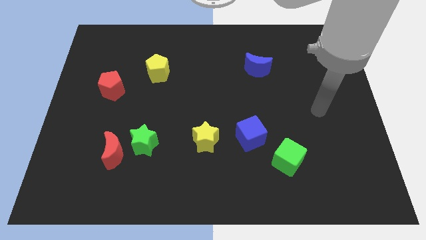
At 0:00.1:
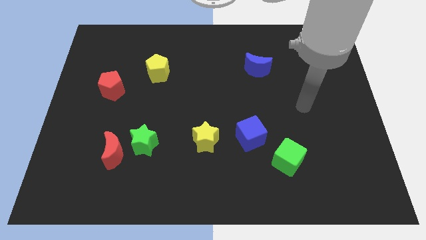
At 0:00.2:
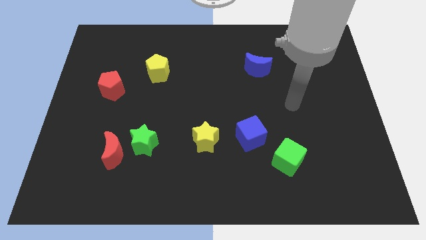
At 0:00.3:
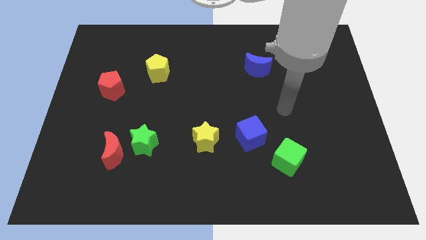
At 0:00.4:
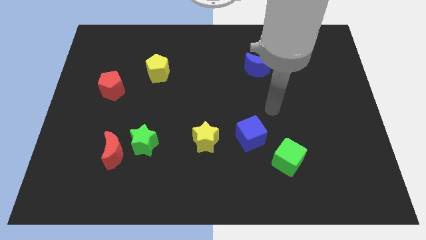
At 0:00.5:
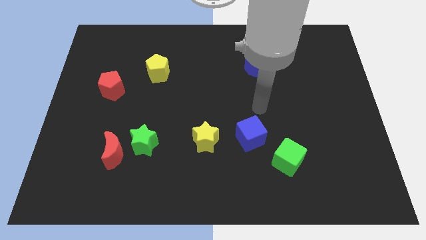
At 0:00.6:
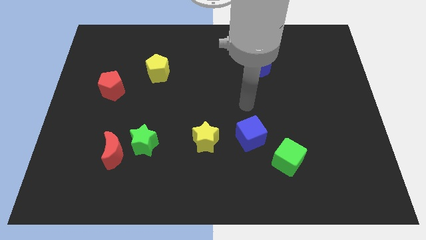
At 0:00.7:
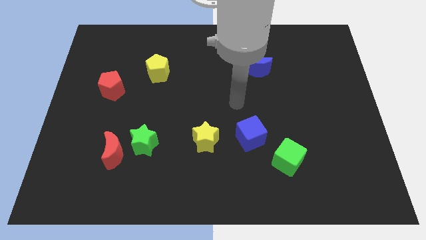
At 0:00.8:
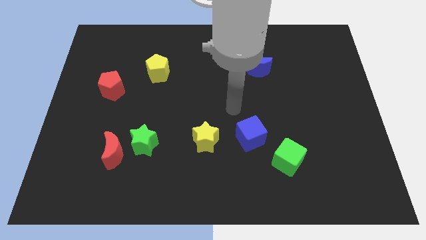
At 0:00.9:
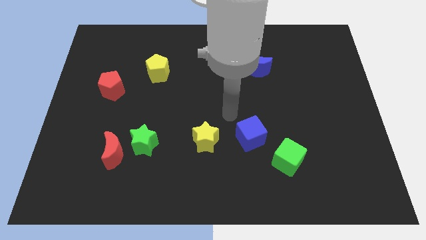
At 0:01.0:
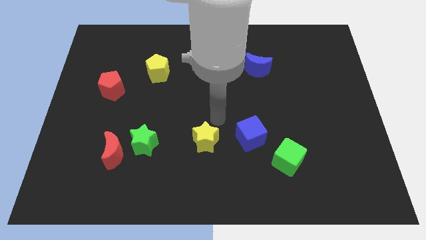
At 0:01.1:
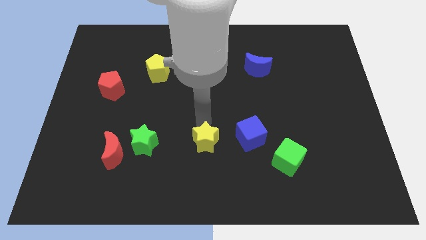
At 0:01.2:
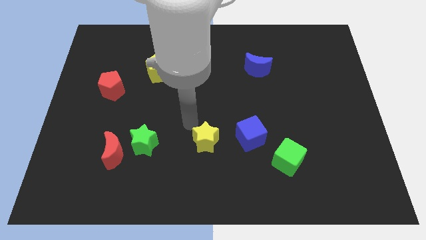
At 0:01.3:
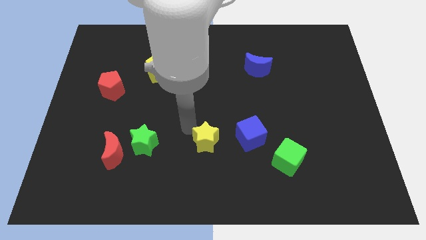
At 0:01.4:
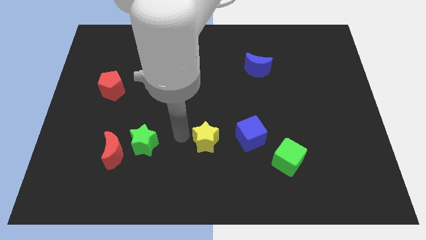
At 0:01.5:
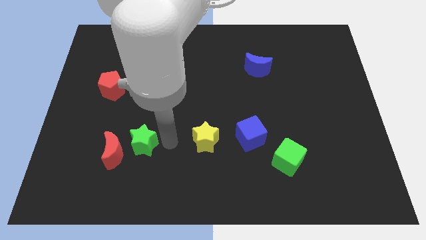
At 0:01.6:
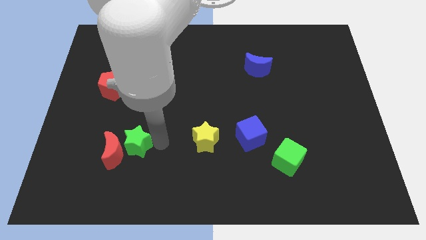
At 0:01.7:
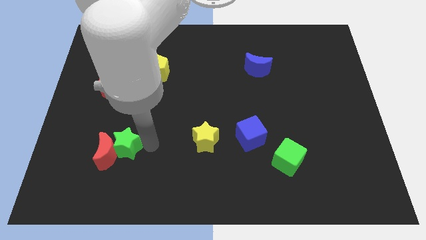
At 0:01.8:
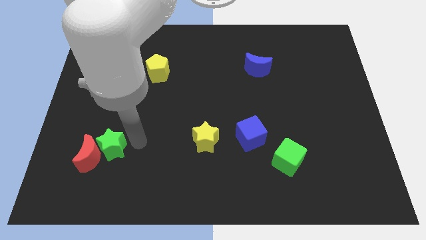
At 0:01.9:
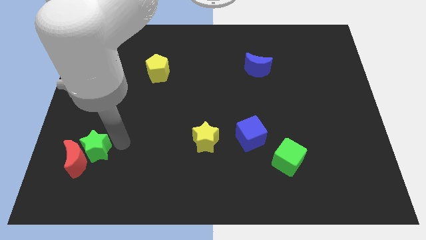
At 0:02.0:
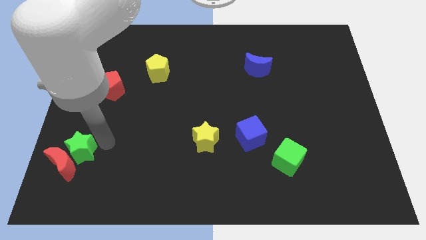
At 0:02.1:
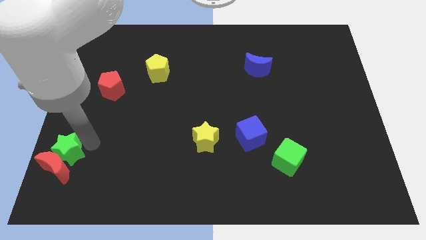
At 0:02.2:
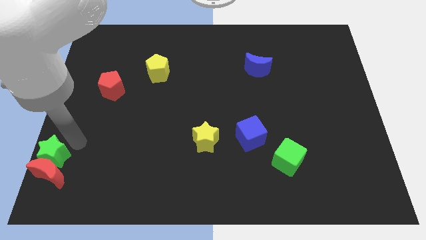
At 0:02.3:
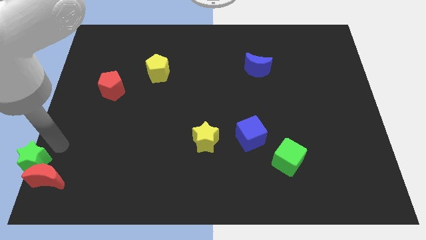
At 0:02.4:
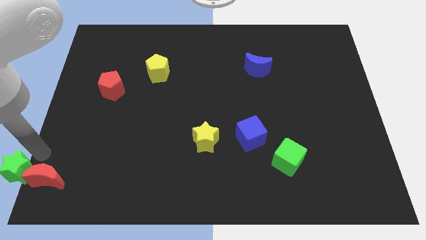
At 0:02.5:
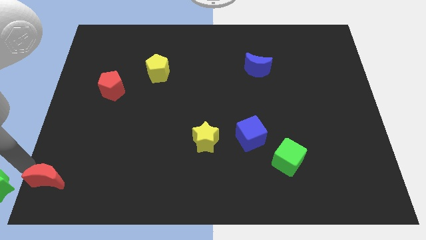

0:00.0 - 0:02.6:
separate the red moon from the green star

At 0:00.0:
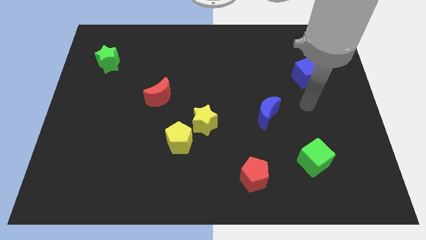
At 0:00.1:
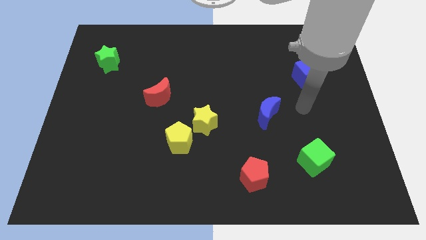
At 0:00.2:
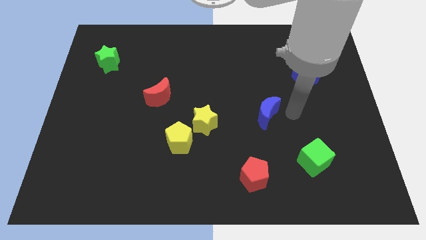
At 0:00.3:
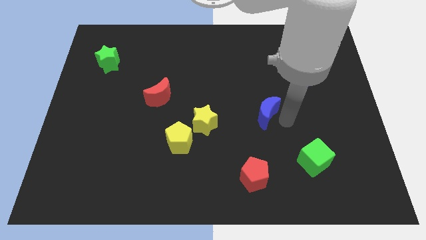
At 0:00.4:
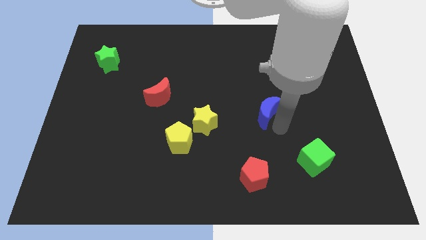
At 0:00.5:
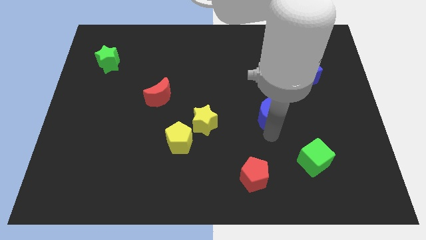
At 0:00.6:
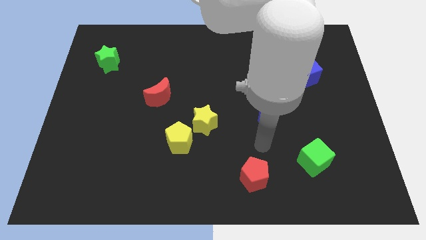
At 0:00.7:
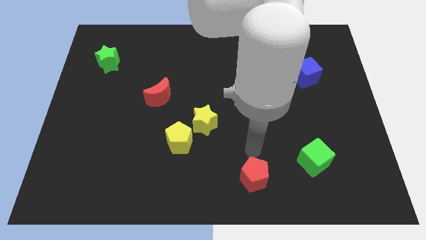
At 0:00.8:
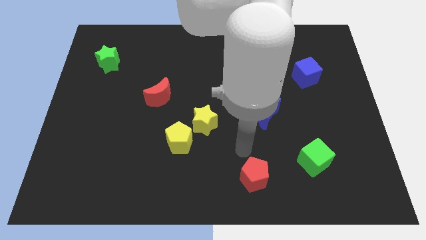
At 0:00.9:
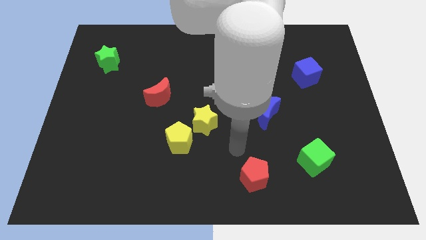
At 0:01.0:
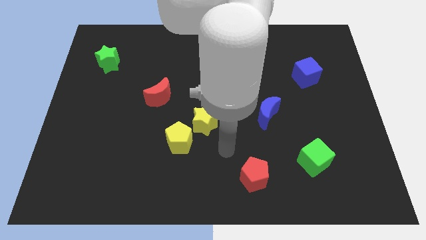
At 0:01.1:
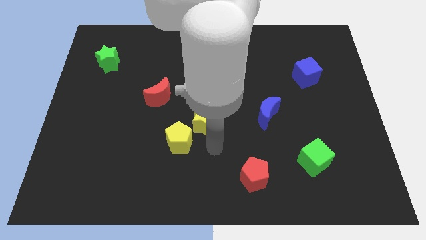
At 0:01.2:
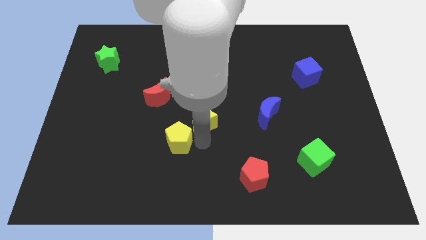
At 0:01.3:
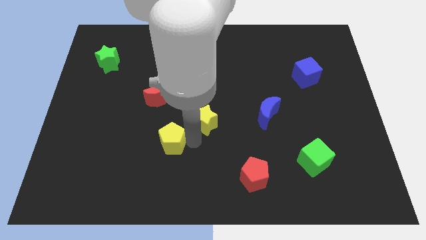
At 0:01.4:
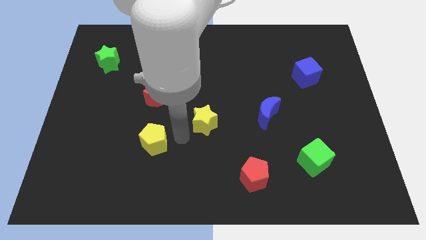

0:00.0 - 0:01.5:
move the yellow star away from the yellow pentagon

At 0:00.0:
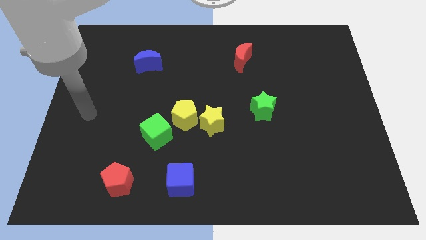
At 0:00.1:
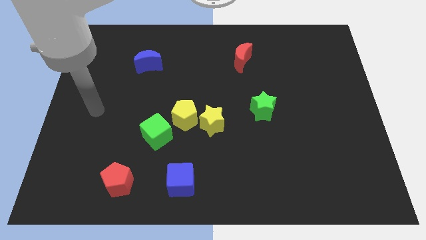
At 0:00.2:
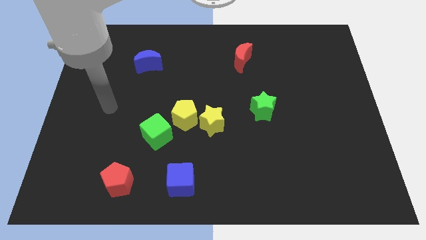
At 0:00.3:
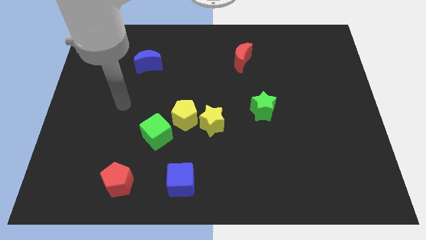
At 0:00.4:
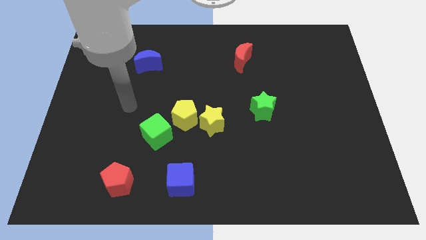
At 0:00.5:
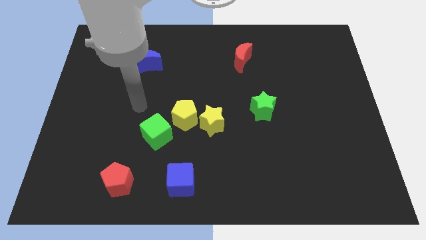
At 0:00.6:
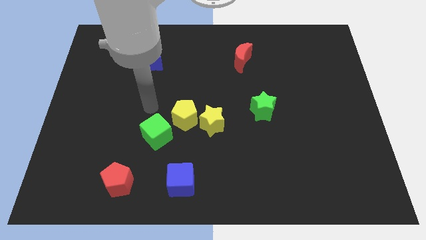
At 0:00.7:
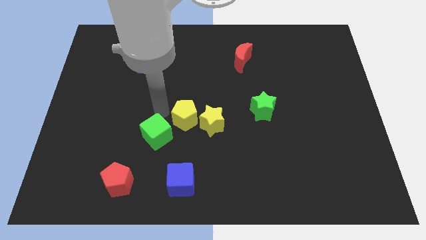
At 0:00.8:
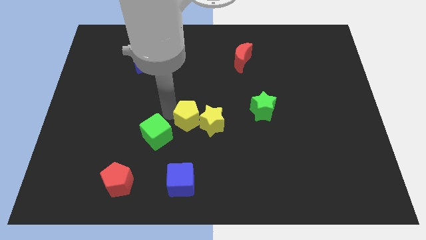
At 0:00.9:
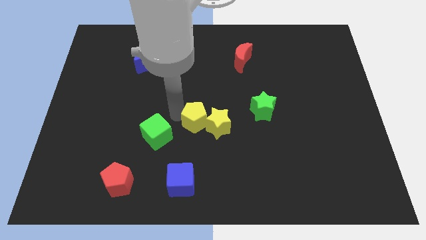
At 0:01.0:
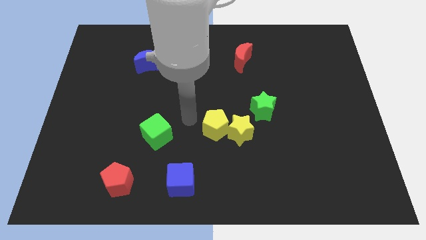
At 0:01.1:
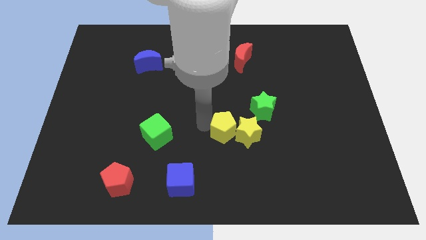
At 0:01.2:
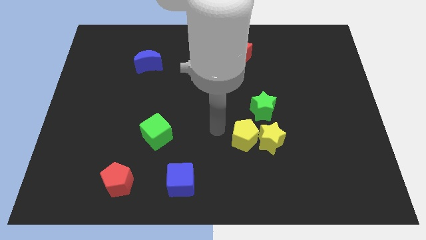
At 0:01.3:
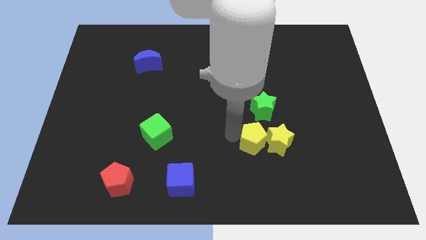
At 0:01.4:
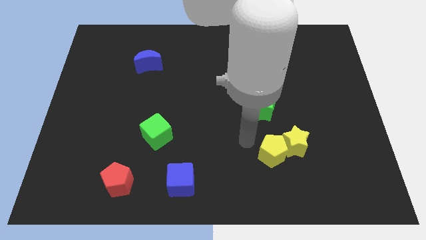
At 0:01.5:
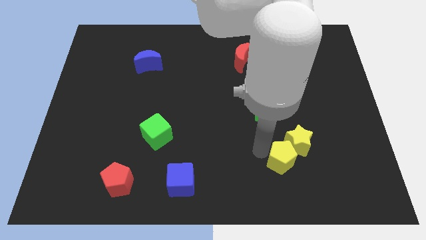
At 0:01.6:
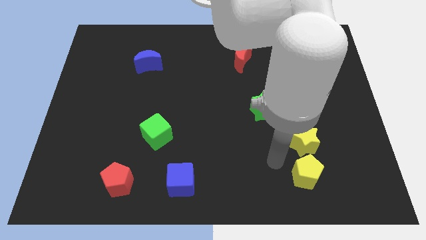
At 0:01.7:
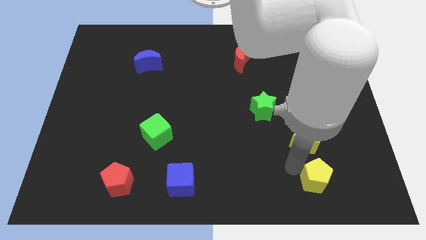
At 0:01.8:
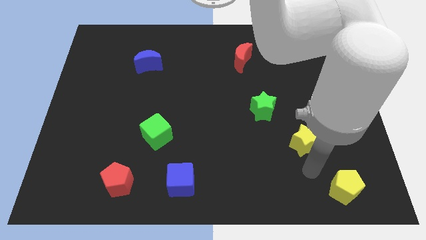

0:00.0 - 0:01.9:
pull the yellow star apart from the yellow pentagon

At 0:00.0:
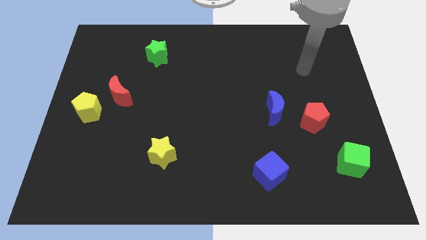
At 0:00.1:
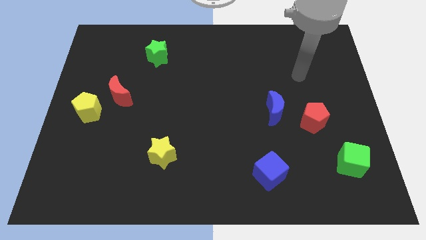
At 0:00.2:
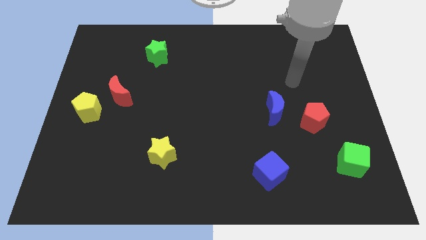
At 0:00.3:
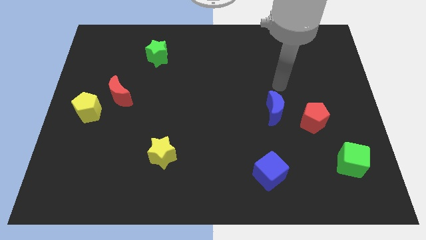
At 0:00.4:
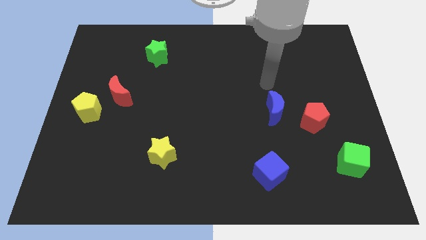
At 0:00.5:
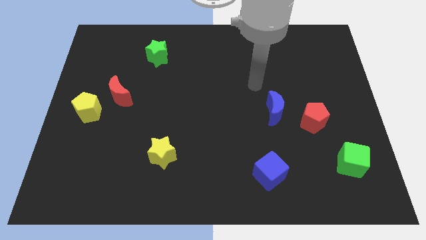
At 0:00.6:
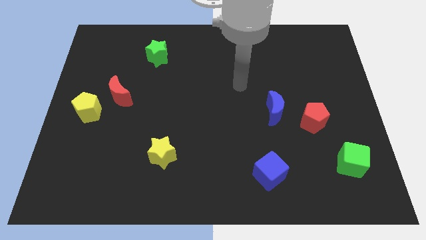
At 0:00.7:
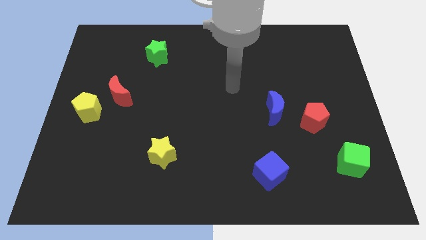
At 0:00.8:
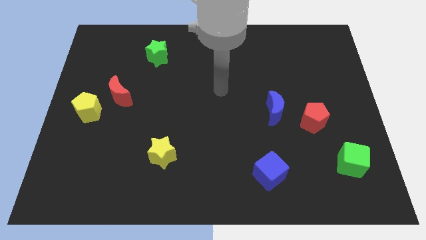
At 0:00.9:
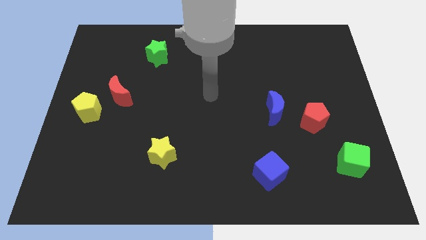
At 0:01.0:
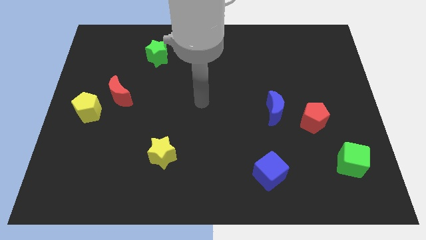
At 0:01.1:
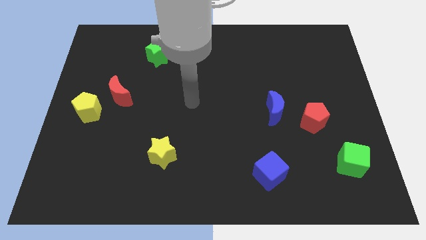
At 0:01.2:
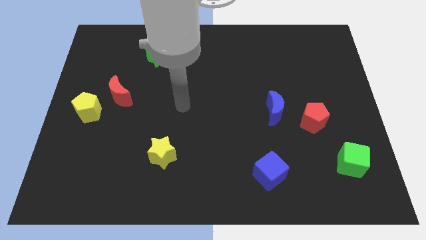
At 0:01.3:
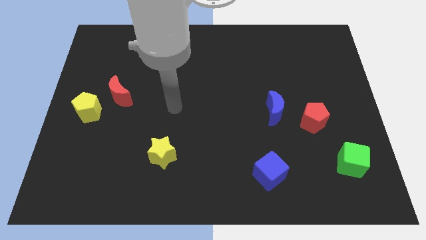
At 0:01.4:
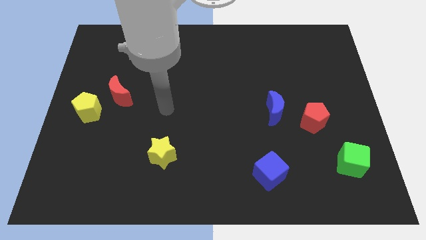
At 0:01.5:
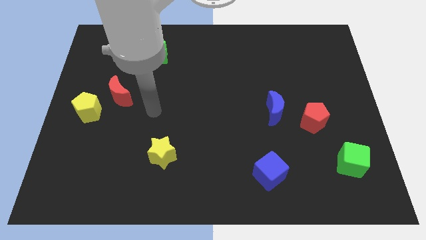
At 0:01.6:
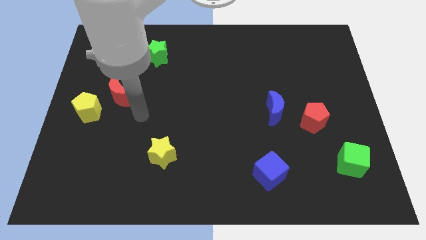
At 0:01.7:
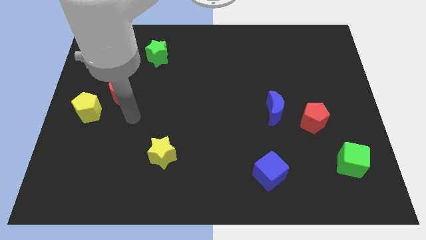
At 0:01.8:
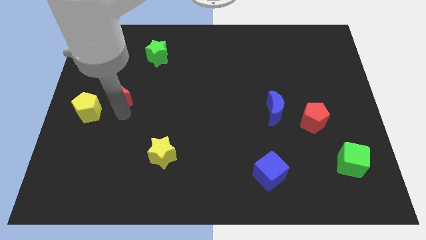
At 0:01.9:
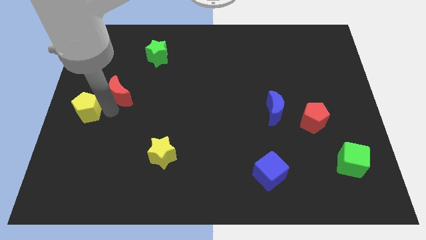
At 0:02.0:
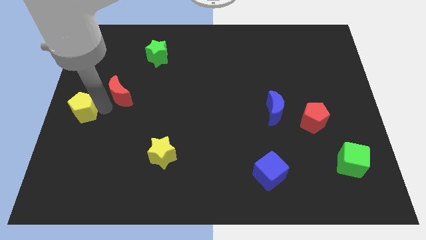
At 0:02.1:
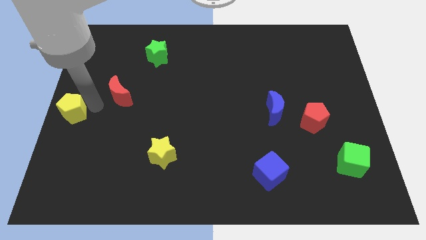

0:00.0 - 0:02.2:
separate the red moon from the yellow pentagon

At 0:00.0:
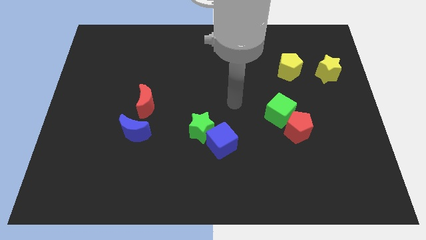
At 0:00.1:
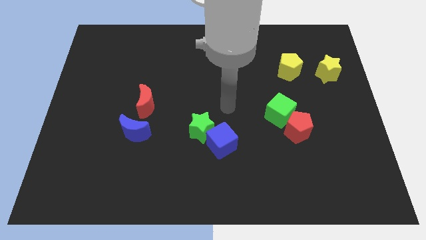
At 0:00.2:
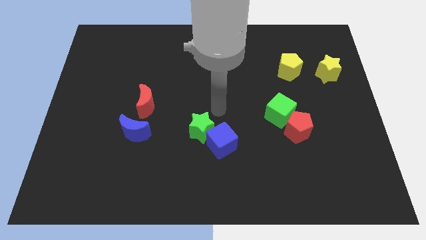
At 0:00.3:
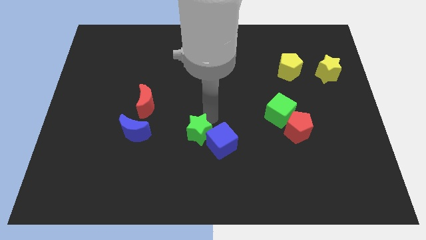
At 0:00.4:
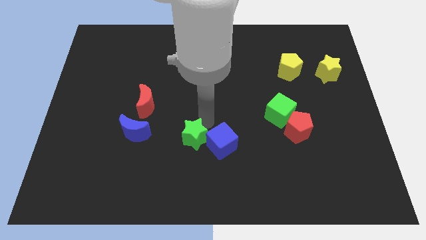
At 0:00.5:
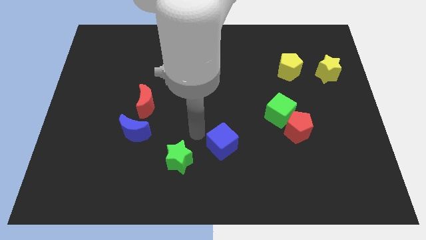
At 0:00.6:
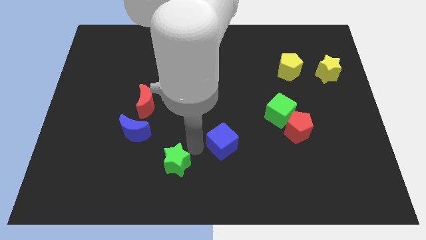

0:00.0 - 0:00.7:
pull the blue cube apart from the green star

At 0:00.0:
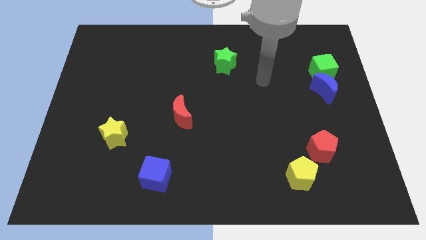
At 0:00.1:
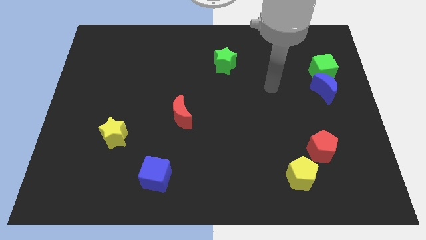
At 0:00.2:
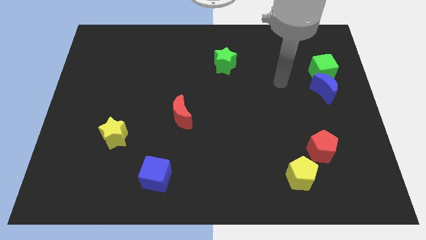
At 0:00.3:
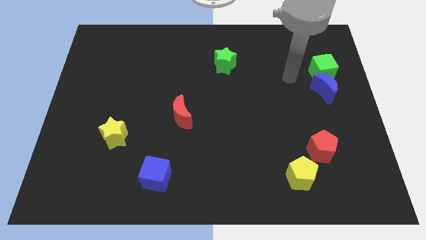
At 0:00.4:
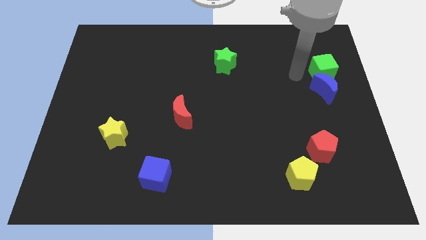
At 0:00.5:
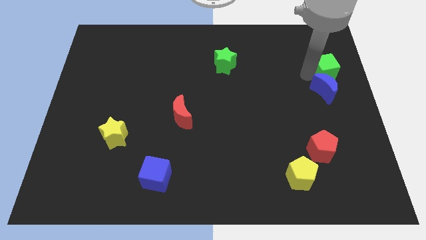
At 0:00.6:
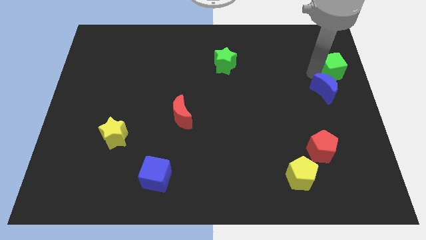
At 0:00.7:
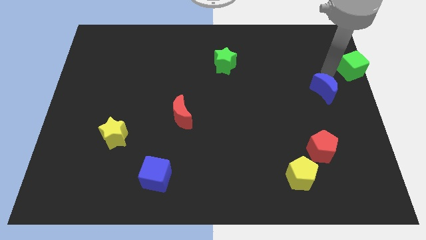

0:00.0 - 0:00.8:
separate the blue moon from the green cube
